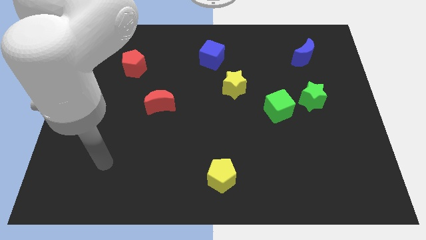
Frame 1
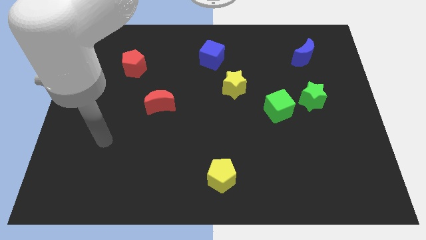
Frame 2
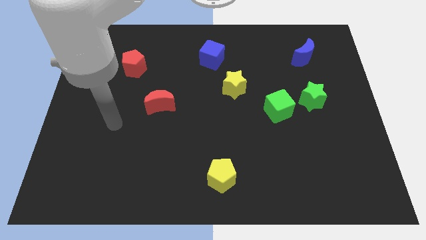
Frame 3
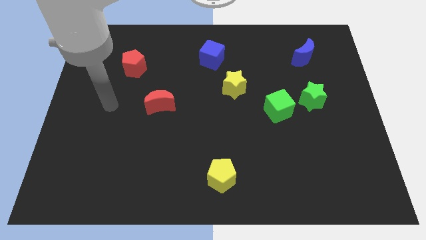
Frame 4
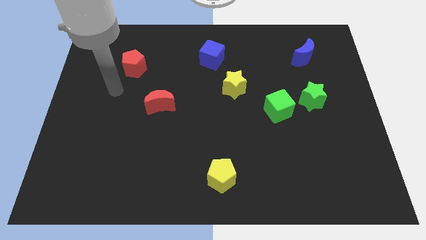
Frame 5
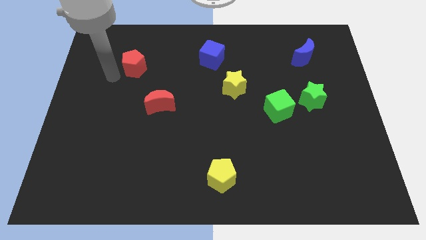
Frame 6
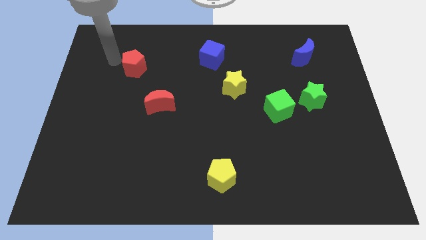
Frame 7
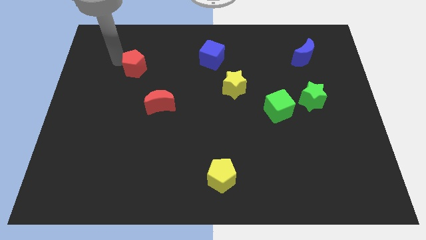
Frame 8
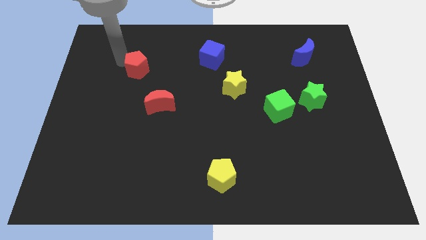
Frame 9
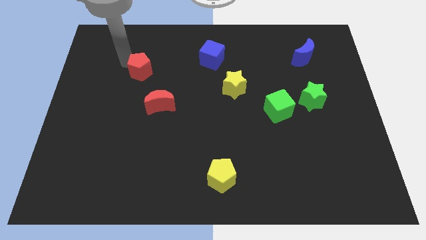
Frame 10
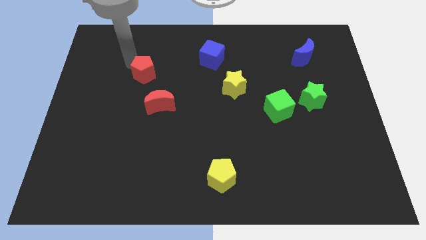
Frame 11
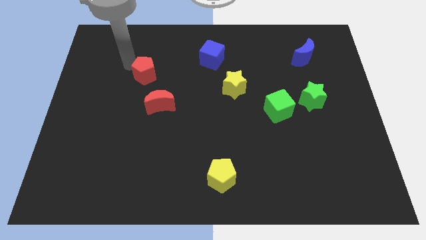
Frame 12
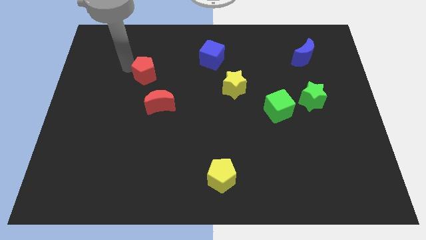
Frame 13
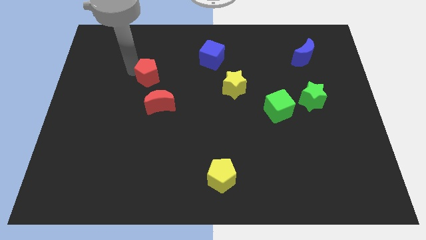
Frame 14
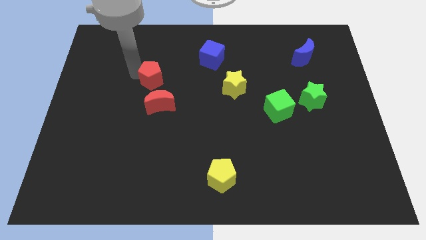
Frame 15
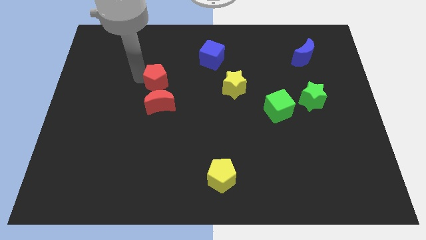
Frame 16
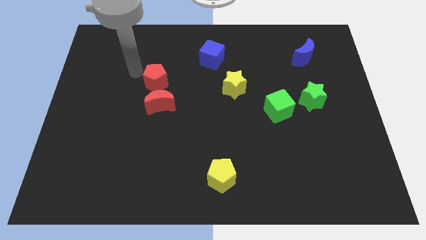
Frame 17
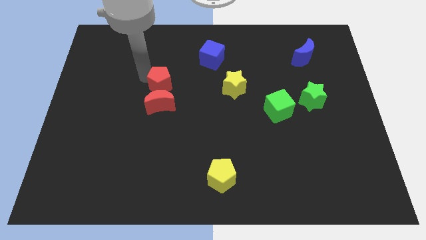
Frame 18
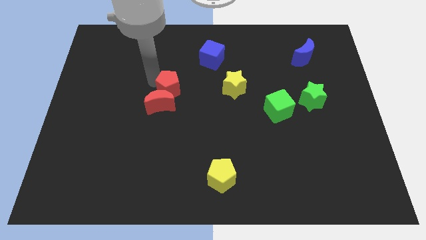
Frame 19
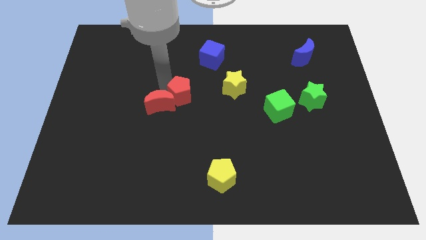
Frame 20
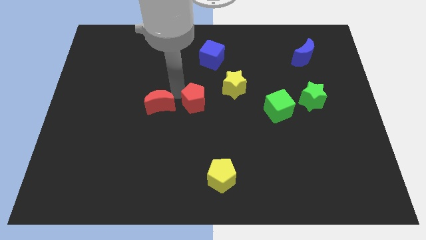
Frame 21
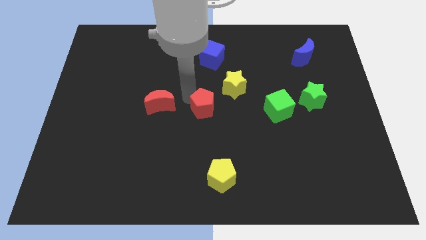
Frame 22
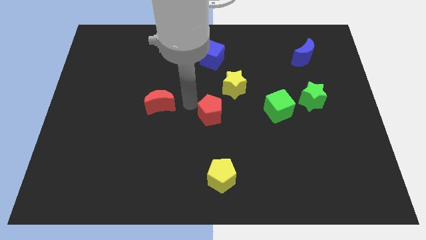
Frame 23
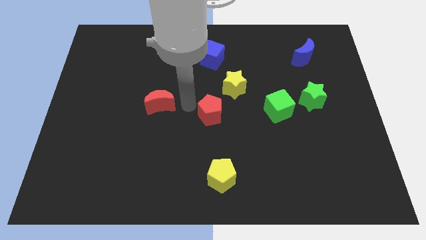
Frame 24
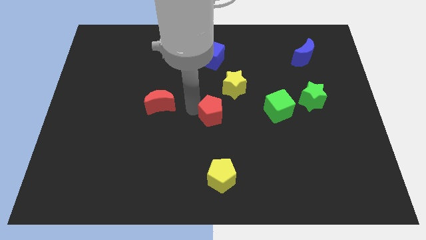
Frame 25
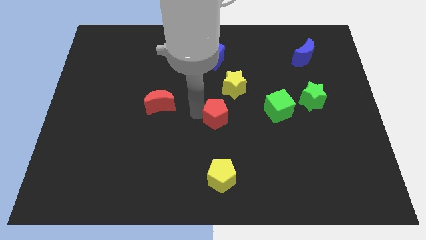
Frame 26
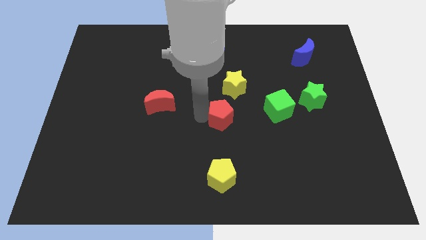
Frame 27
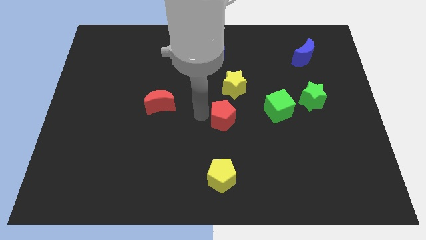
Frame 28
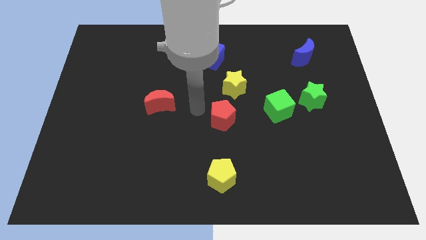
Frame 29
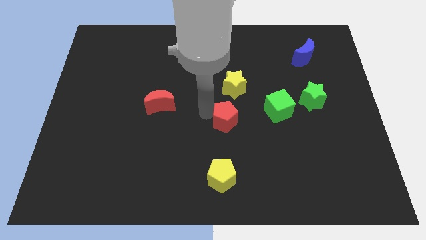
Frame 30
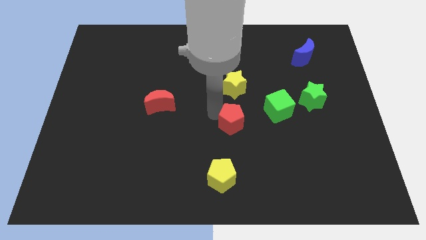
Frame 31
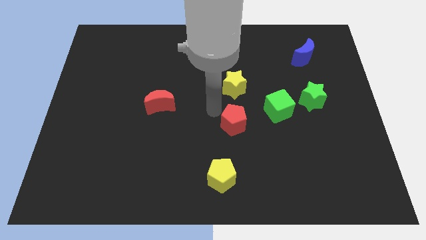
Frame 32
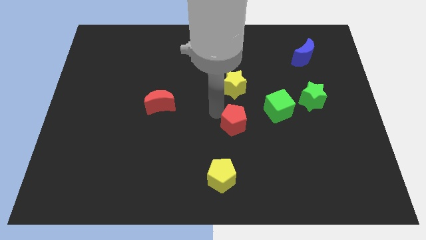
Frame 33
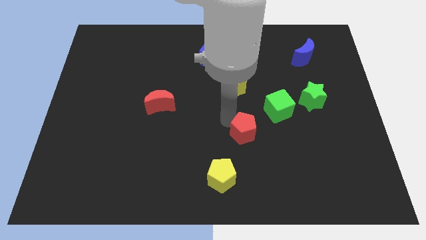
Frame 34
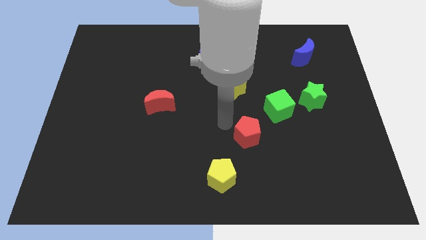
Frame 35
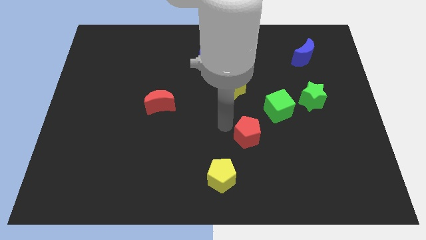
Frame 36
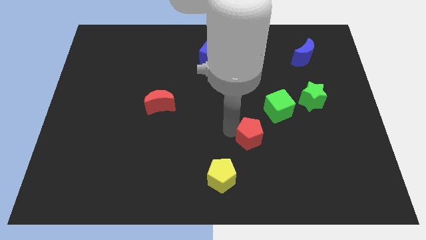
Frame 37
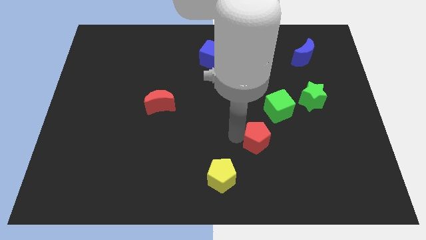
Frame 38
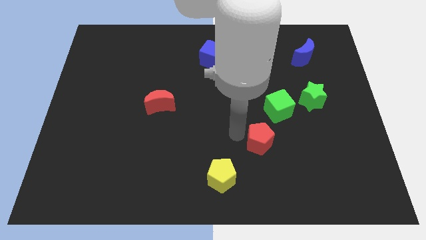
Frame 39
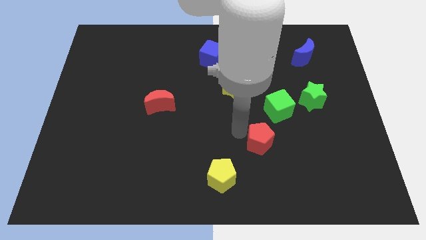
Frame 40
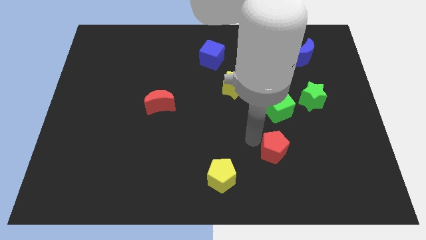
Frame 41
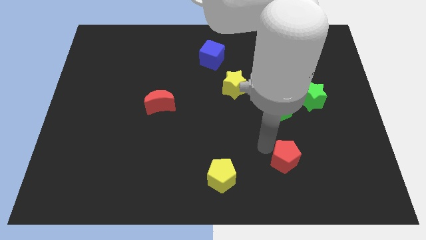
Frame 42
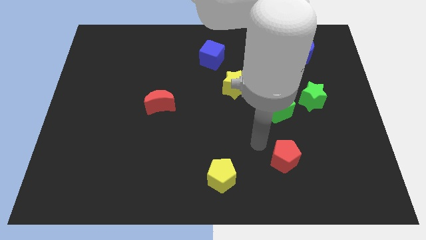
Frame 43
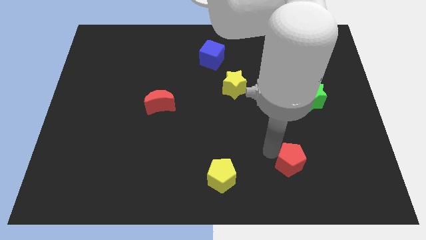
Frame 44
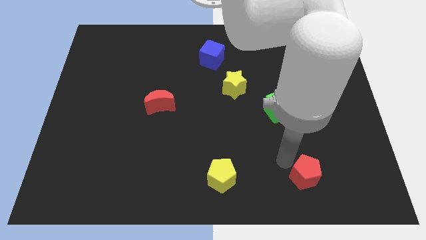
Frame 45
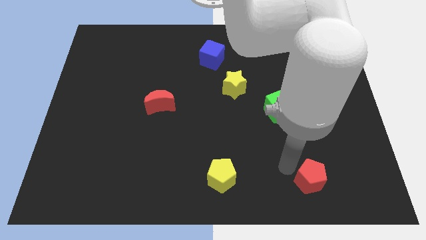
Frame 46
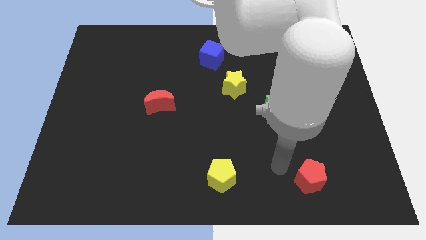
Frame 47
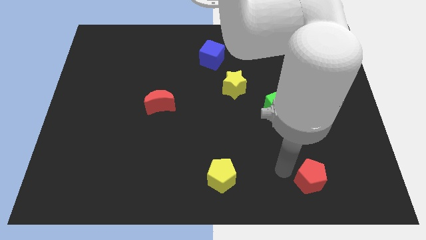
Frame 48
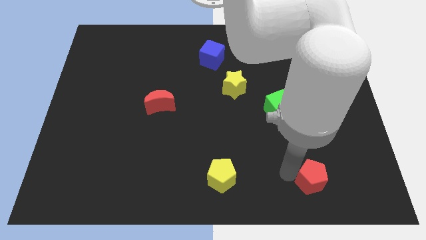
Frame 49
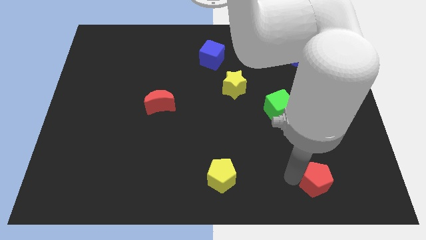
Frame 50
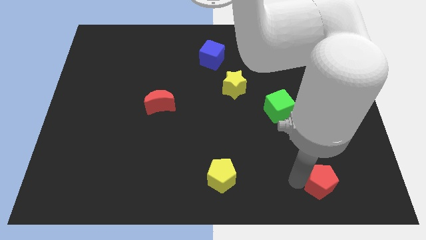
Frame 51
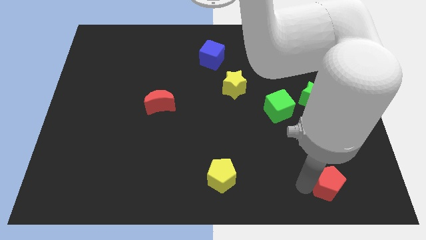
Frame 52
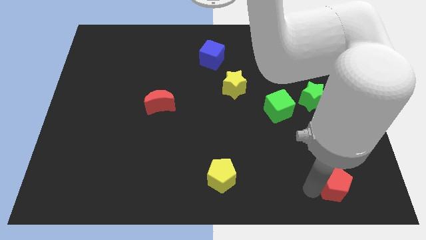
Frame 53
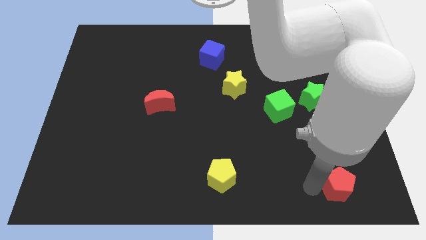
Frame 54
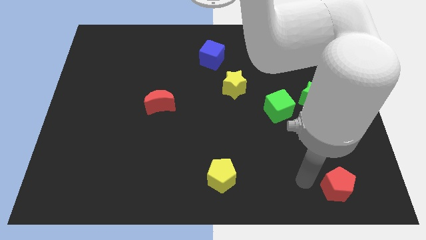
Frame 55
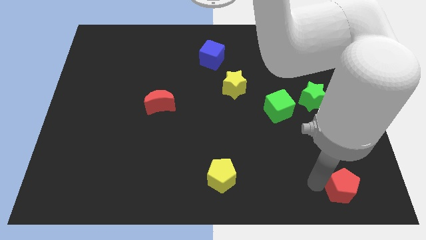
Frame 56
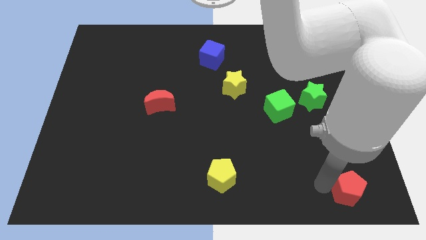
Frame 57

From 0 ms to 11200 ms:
slide the red pentagon to the bottom right
